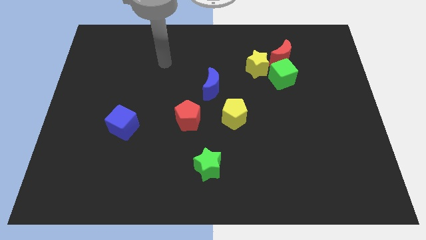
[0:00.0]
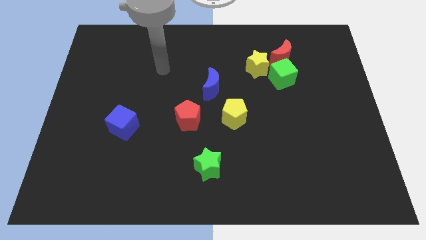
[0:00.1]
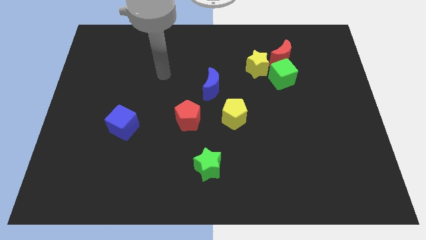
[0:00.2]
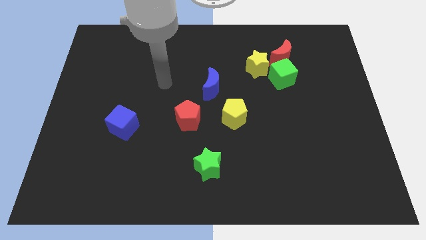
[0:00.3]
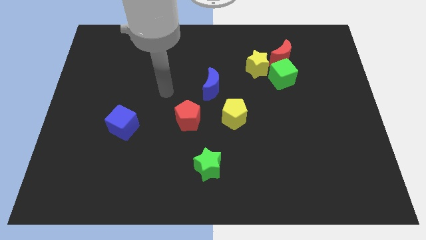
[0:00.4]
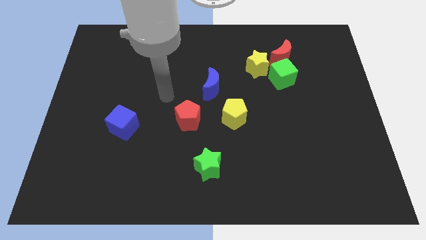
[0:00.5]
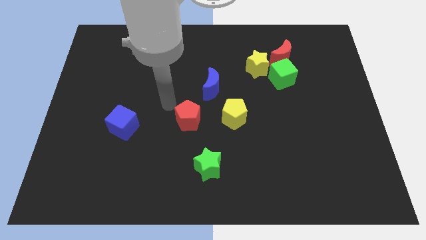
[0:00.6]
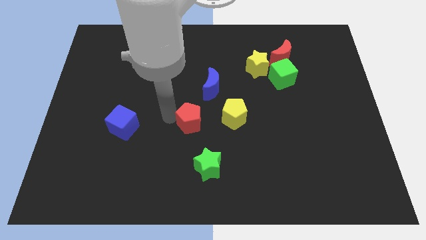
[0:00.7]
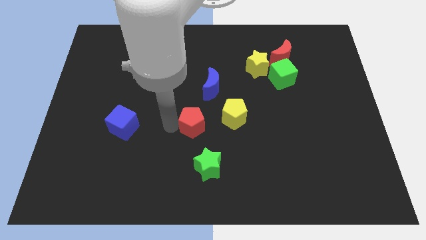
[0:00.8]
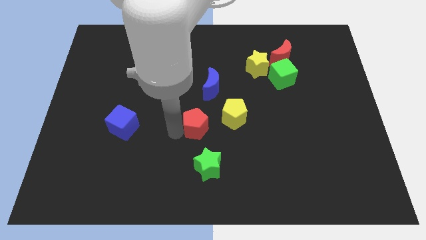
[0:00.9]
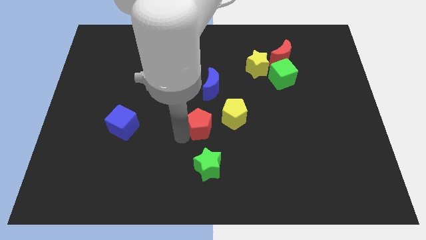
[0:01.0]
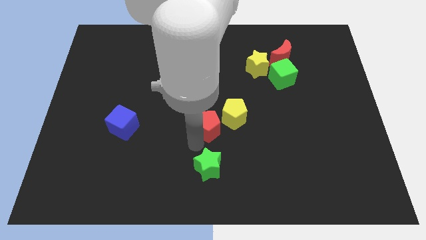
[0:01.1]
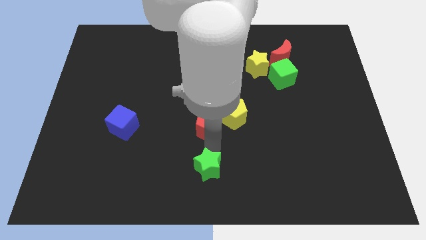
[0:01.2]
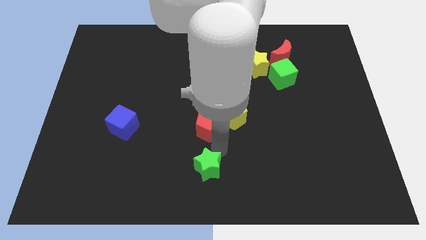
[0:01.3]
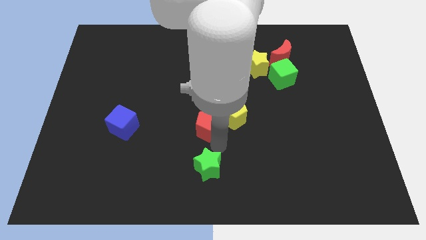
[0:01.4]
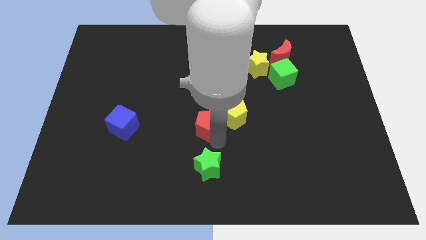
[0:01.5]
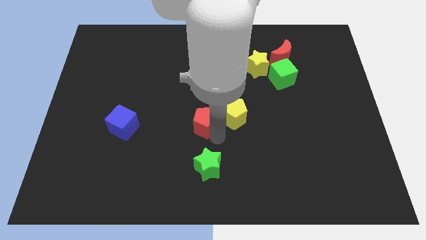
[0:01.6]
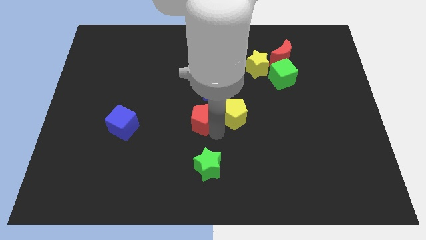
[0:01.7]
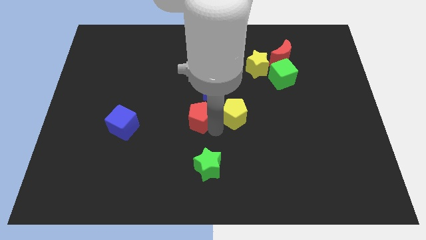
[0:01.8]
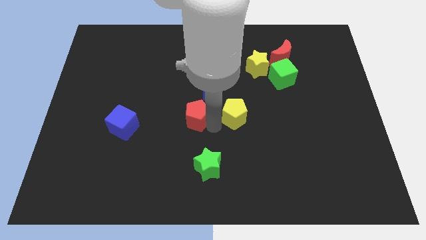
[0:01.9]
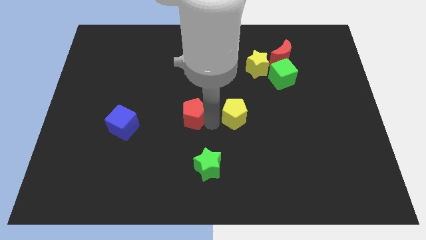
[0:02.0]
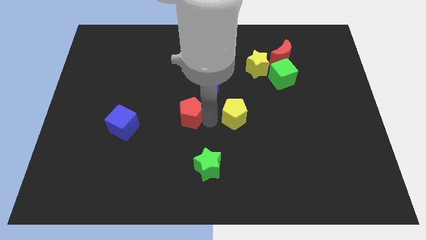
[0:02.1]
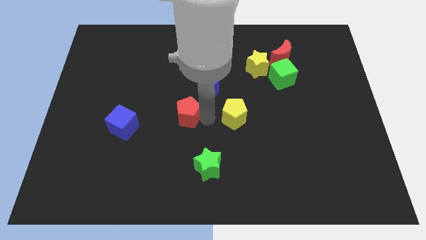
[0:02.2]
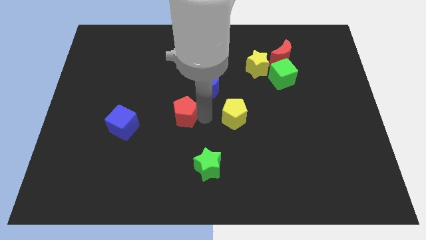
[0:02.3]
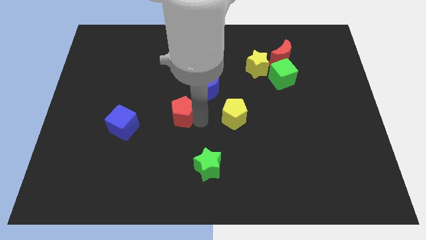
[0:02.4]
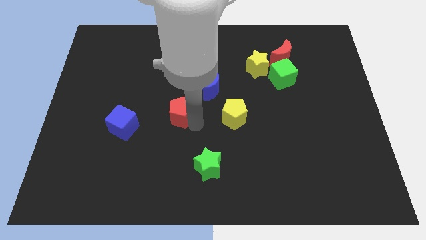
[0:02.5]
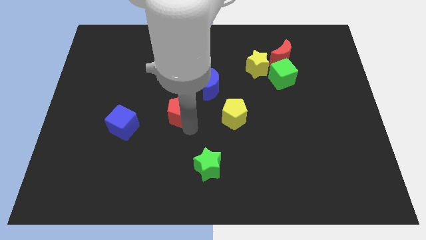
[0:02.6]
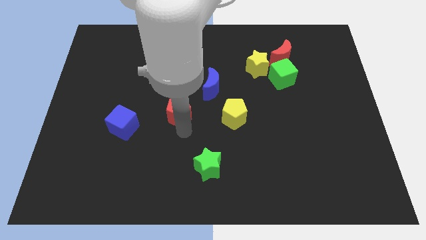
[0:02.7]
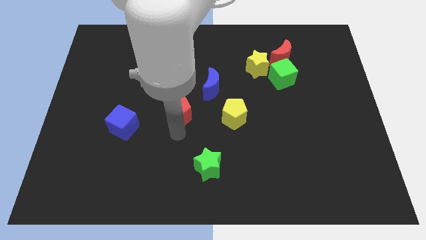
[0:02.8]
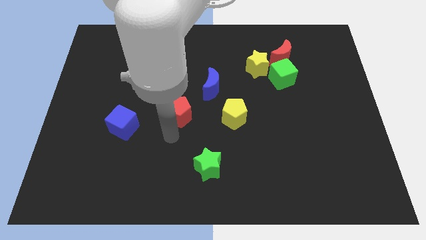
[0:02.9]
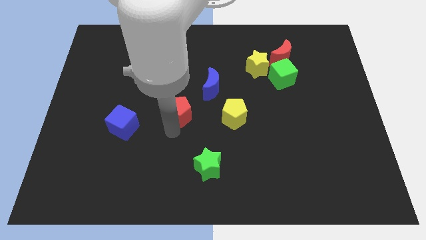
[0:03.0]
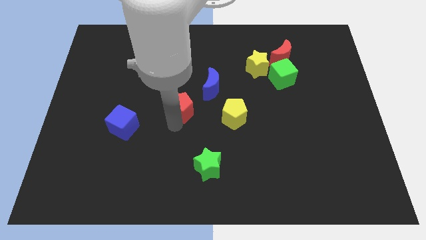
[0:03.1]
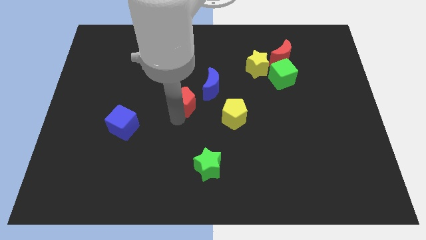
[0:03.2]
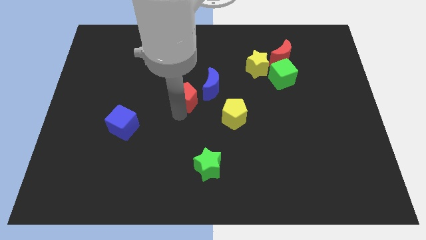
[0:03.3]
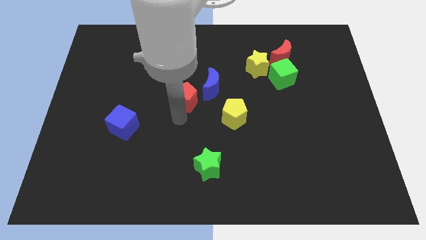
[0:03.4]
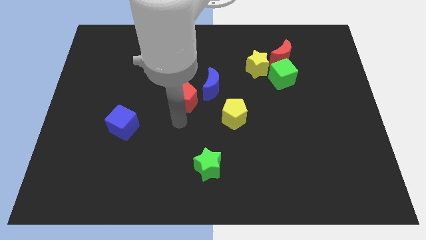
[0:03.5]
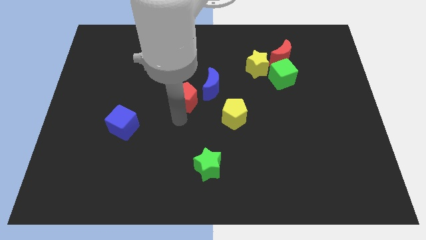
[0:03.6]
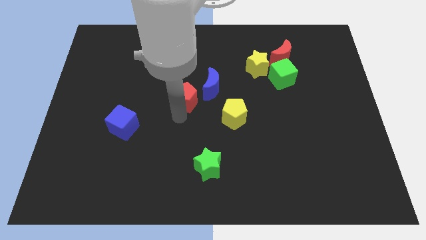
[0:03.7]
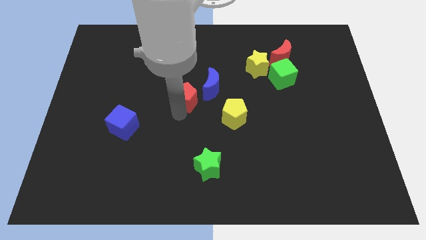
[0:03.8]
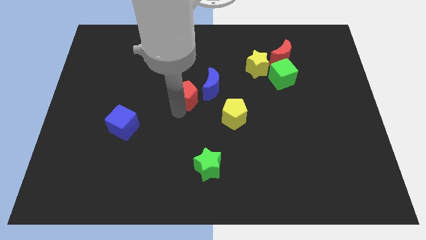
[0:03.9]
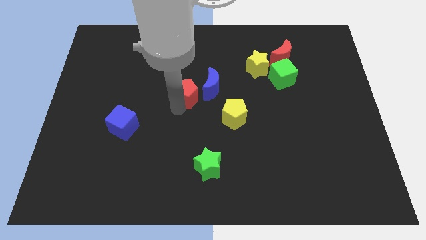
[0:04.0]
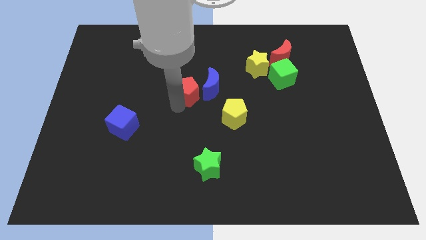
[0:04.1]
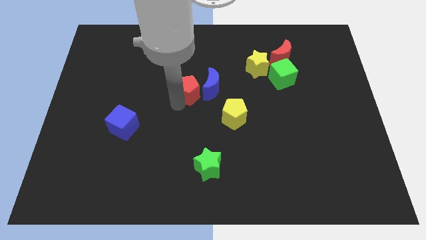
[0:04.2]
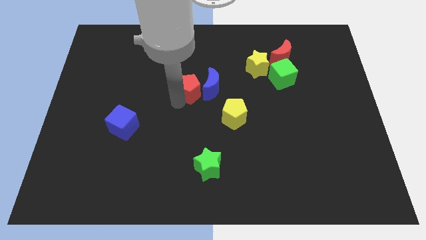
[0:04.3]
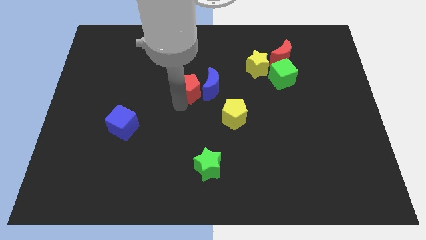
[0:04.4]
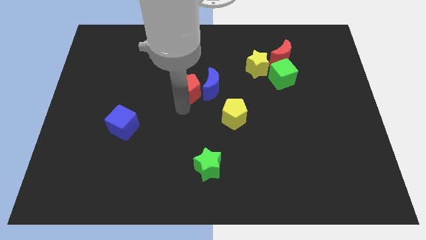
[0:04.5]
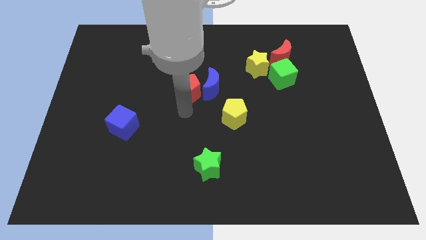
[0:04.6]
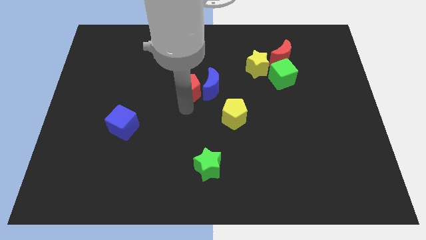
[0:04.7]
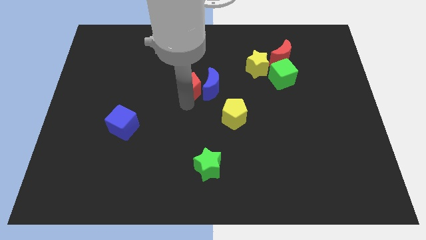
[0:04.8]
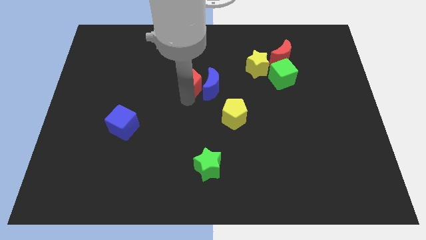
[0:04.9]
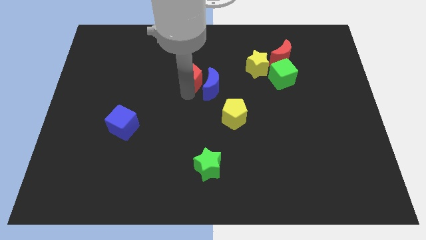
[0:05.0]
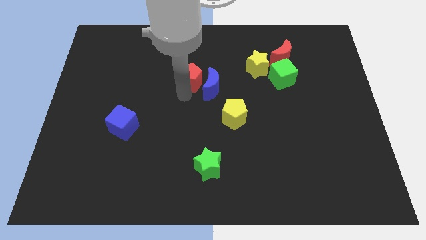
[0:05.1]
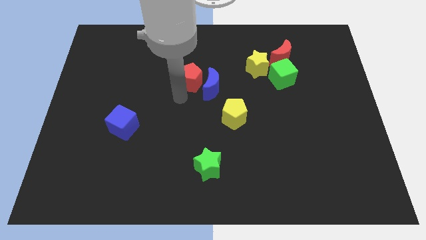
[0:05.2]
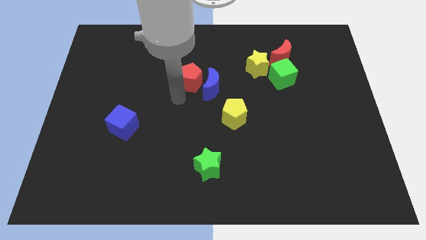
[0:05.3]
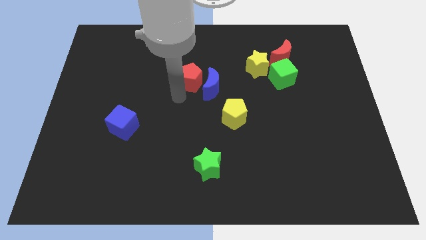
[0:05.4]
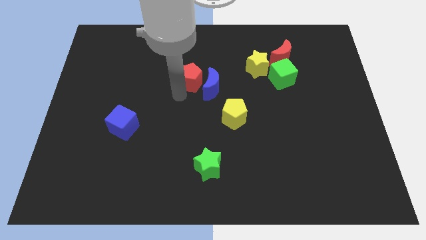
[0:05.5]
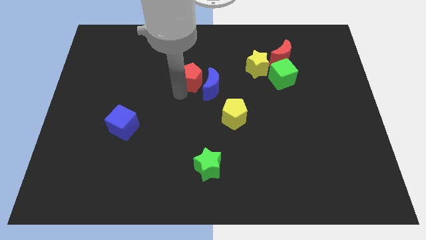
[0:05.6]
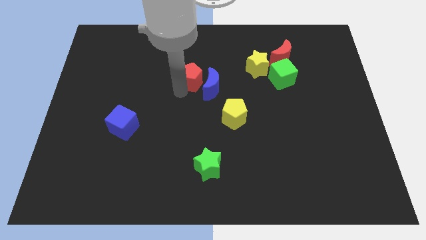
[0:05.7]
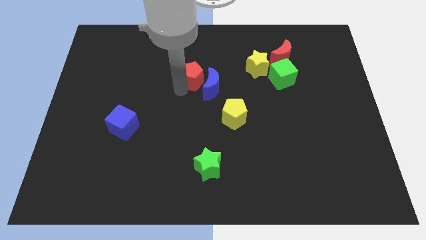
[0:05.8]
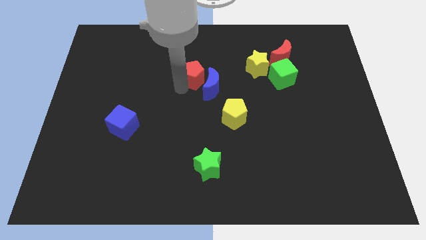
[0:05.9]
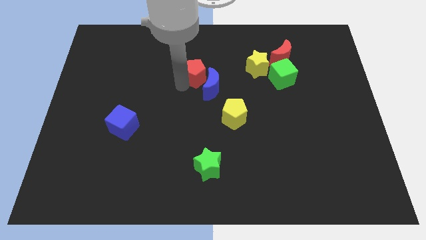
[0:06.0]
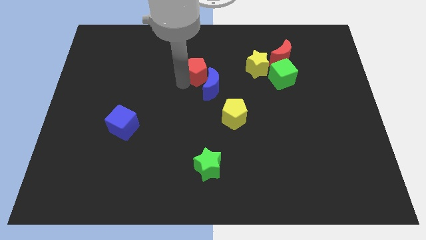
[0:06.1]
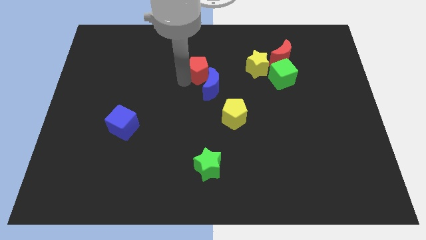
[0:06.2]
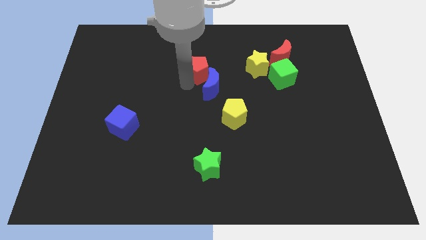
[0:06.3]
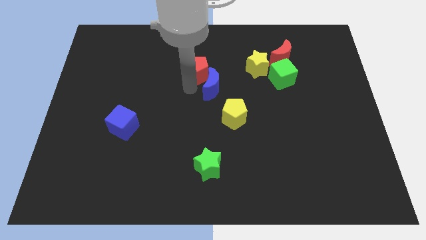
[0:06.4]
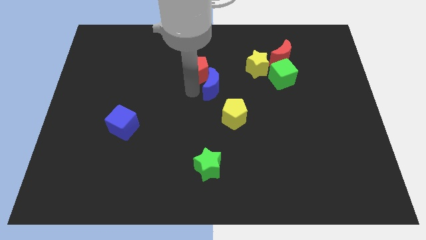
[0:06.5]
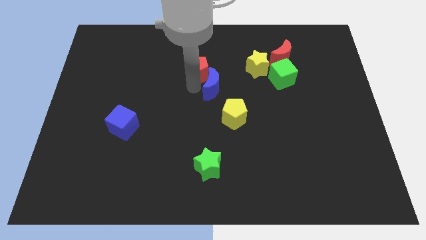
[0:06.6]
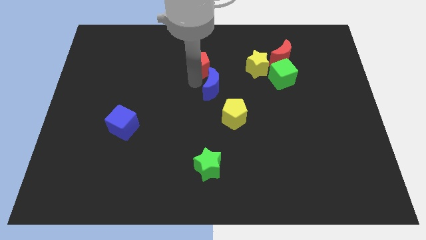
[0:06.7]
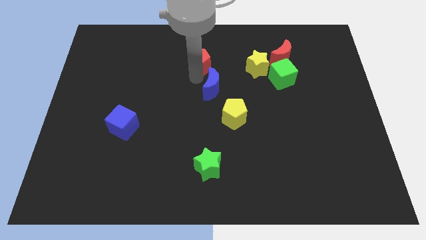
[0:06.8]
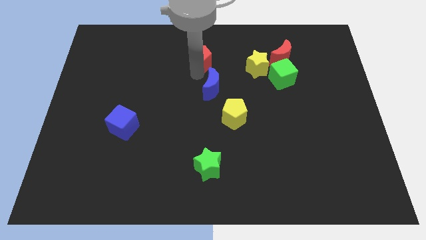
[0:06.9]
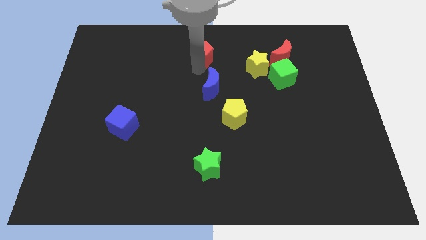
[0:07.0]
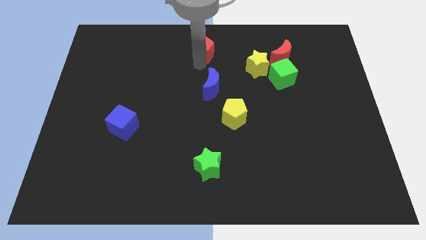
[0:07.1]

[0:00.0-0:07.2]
put the red pentagon to the top side
